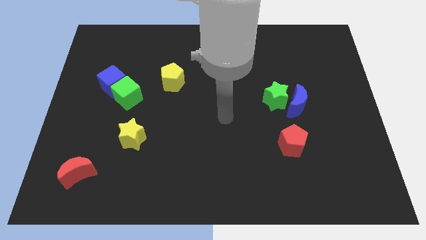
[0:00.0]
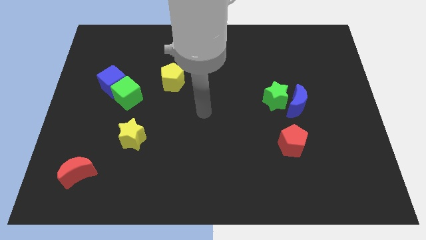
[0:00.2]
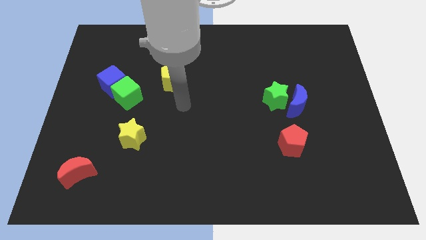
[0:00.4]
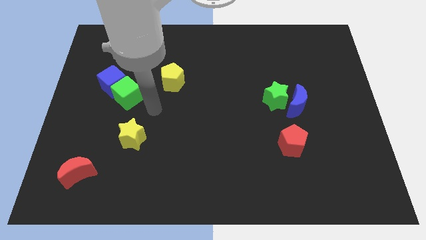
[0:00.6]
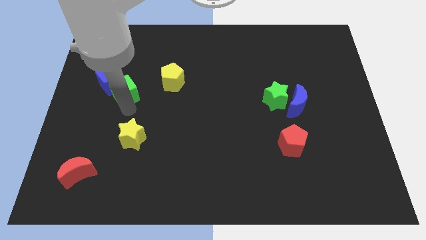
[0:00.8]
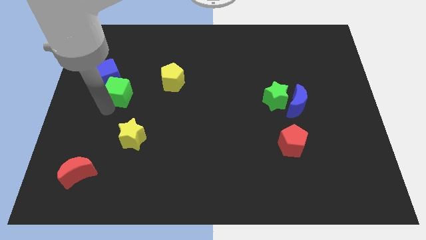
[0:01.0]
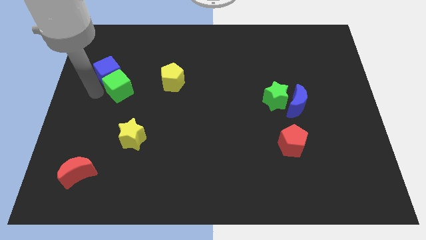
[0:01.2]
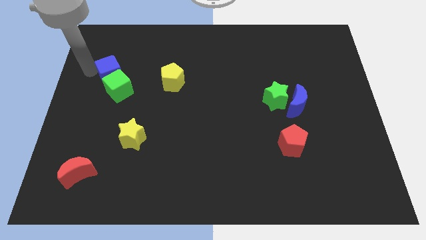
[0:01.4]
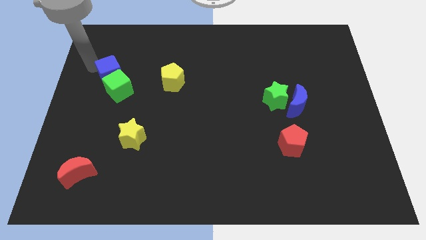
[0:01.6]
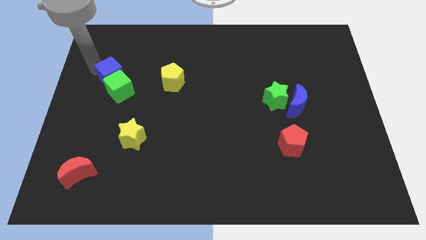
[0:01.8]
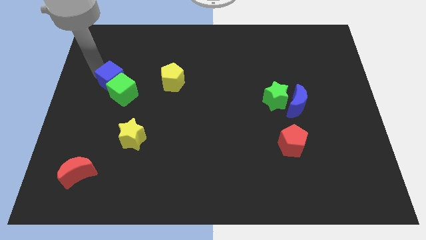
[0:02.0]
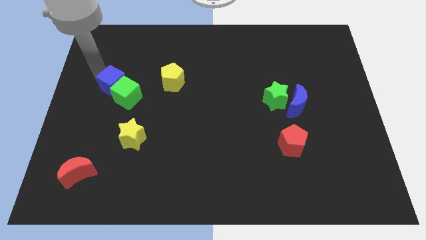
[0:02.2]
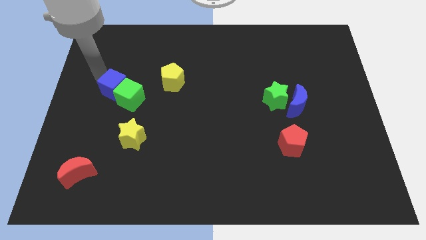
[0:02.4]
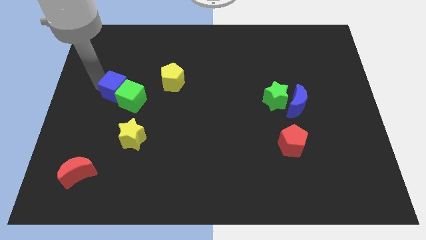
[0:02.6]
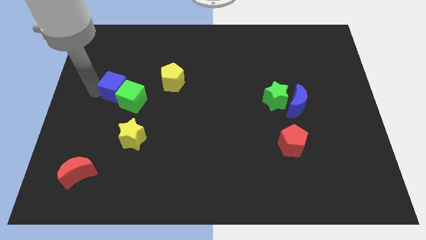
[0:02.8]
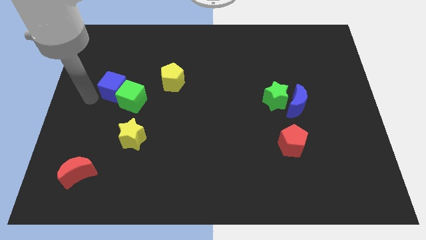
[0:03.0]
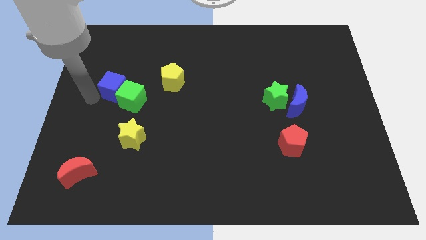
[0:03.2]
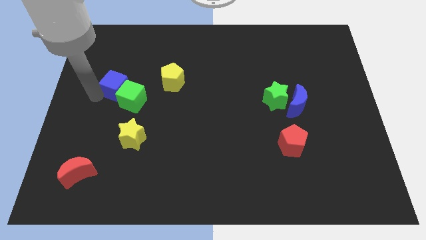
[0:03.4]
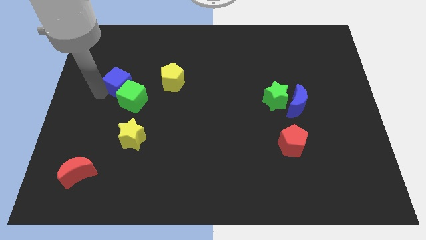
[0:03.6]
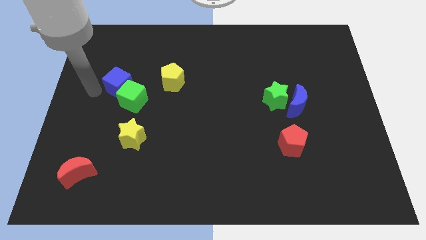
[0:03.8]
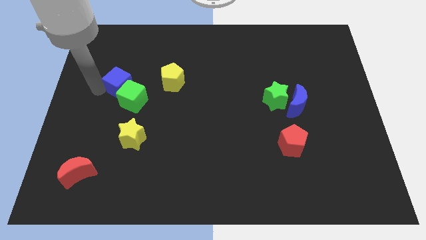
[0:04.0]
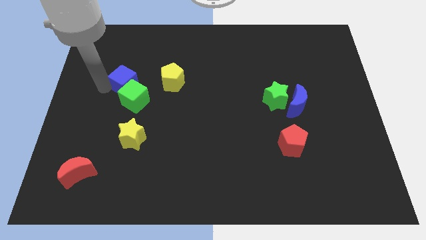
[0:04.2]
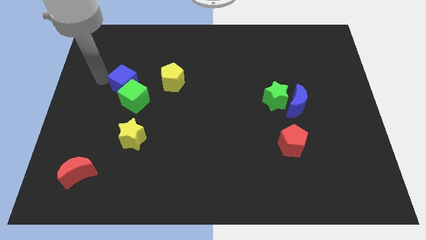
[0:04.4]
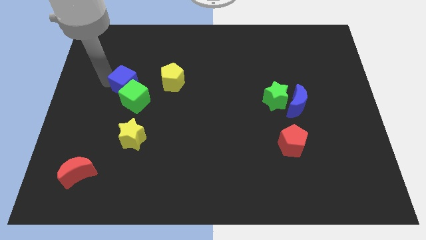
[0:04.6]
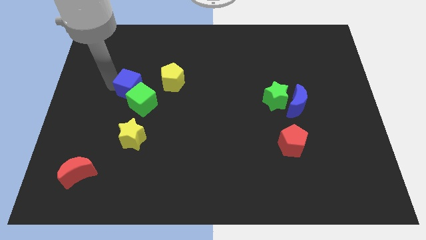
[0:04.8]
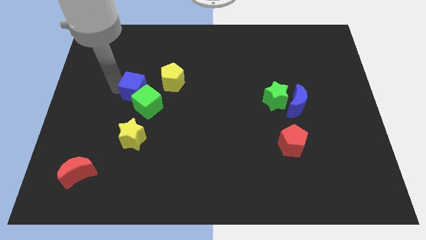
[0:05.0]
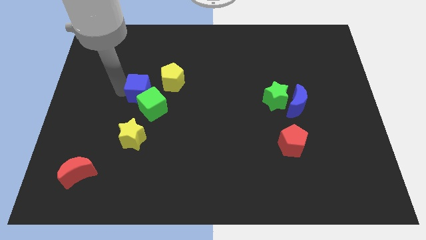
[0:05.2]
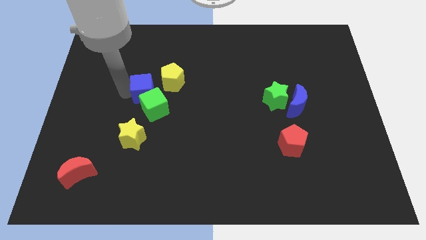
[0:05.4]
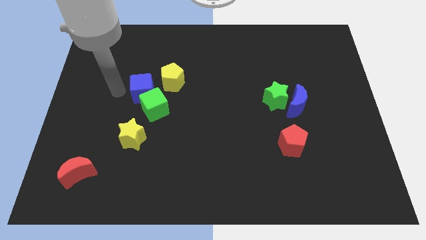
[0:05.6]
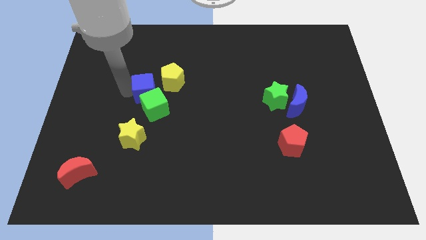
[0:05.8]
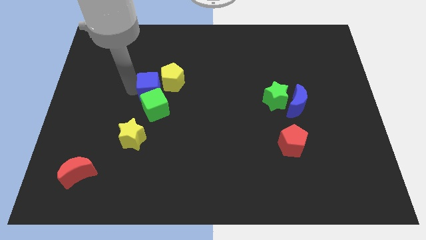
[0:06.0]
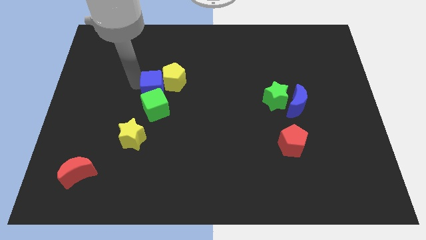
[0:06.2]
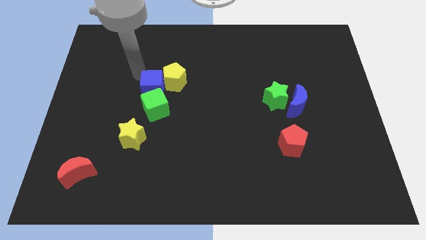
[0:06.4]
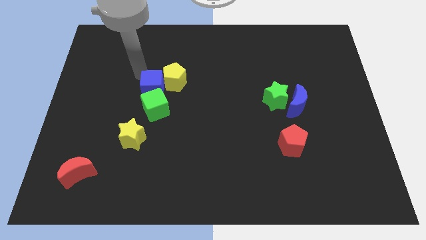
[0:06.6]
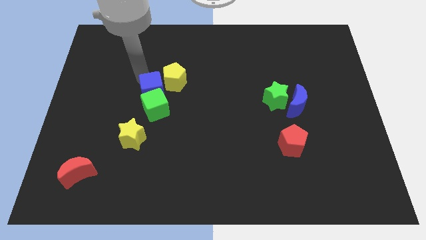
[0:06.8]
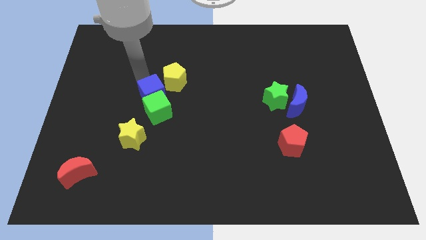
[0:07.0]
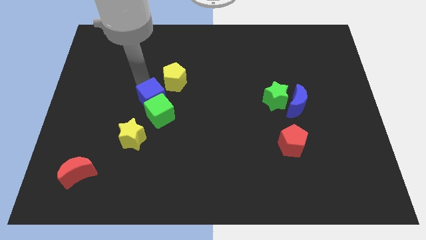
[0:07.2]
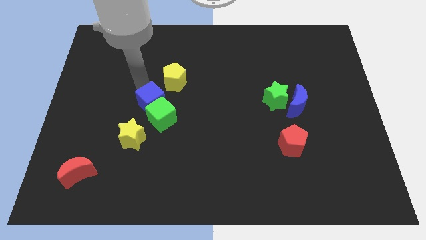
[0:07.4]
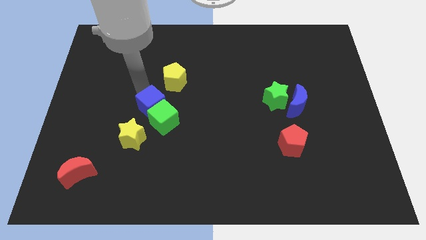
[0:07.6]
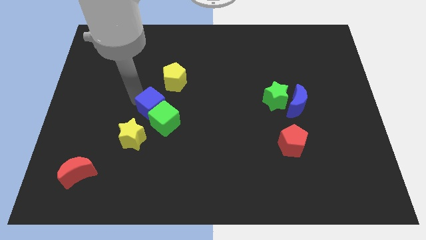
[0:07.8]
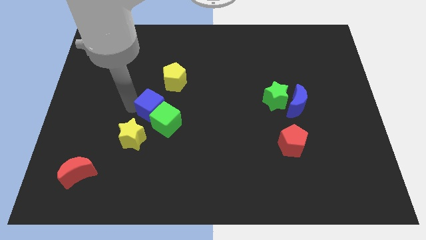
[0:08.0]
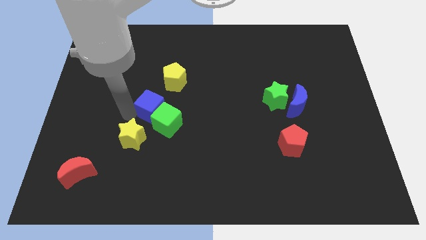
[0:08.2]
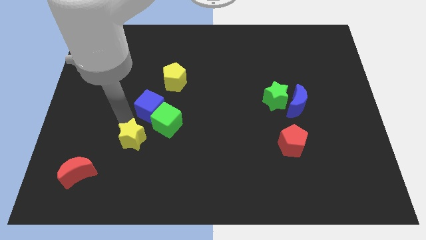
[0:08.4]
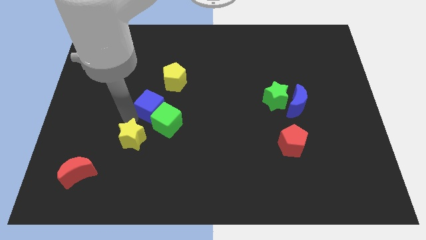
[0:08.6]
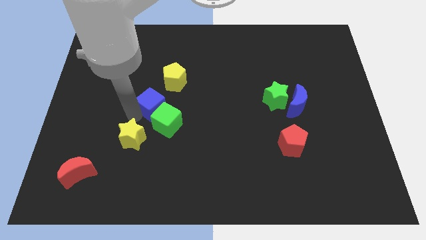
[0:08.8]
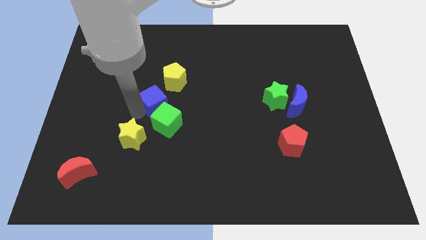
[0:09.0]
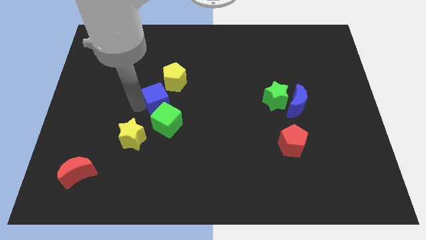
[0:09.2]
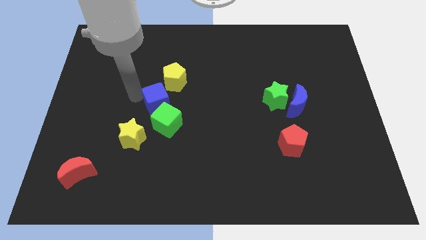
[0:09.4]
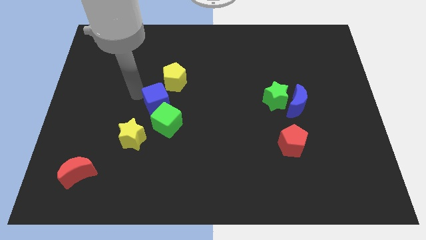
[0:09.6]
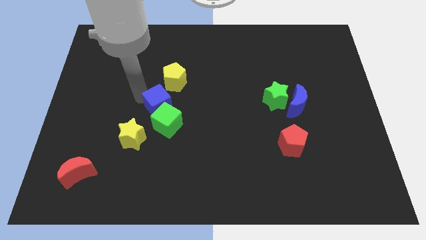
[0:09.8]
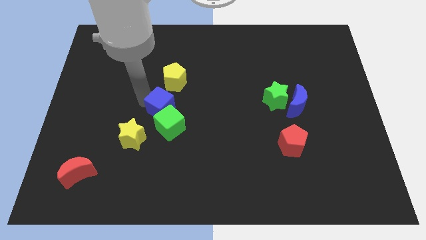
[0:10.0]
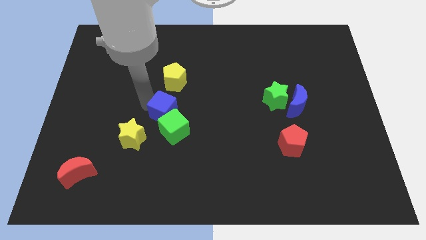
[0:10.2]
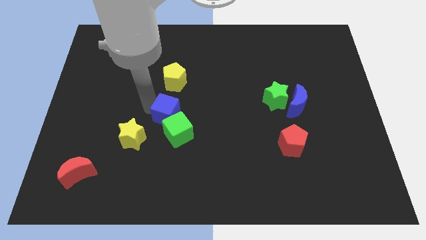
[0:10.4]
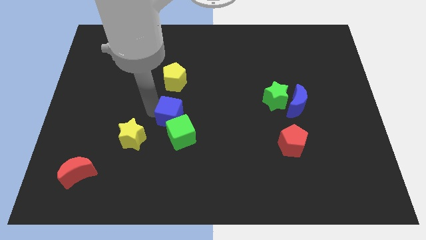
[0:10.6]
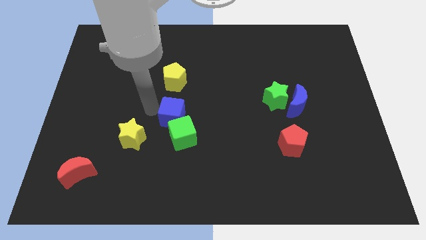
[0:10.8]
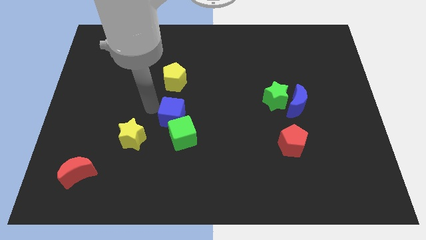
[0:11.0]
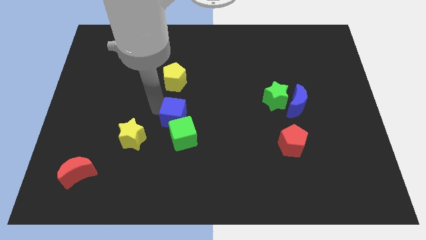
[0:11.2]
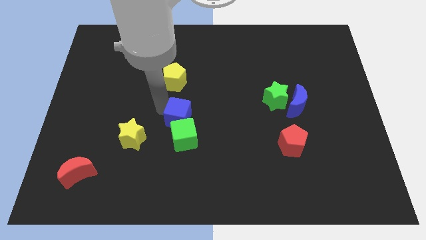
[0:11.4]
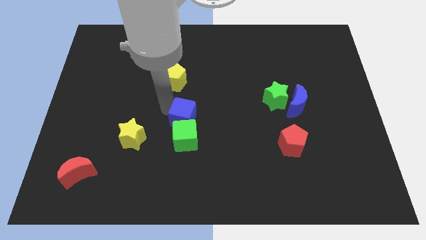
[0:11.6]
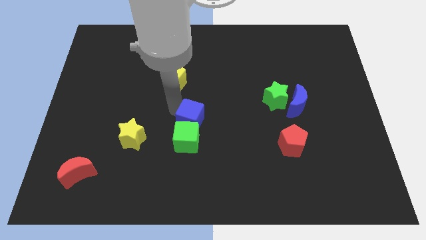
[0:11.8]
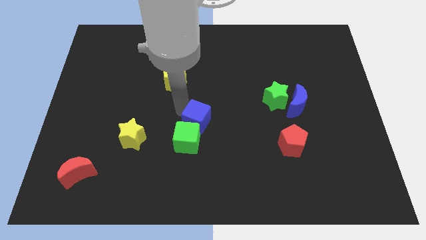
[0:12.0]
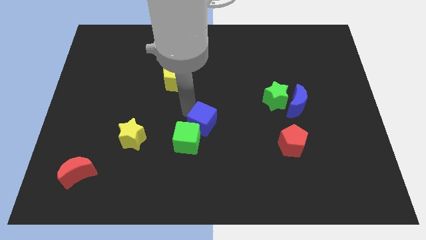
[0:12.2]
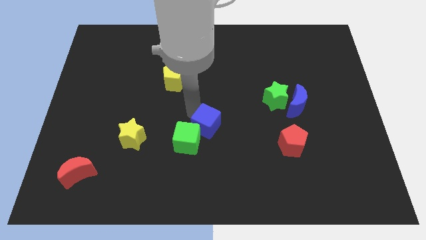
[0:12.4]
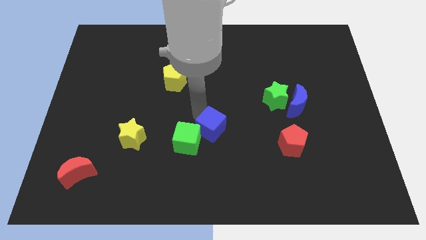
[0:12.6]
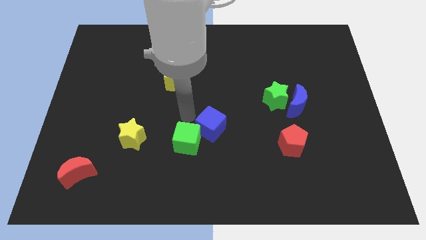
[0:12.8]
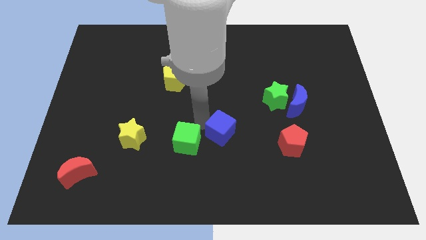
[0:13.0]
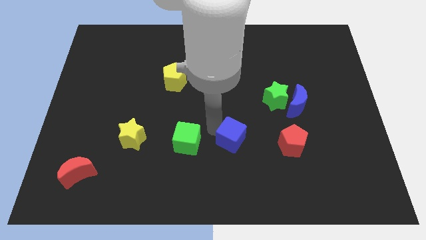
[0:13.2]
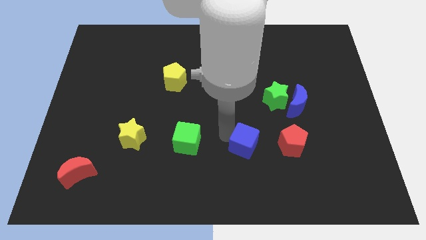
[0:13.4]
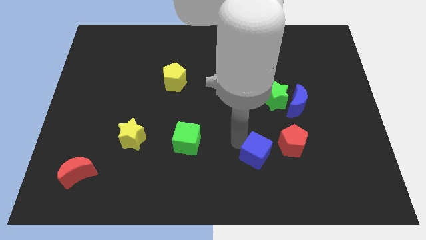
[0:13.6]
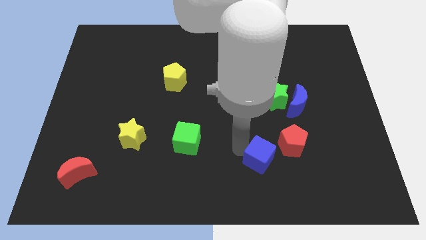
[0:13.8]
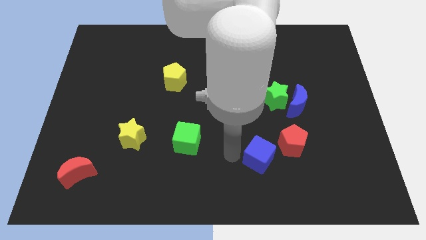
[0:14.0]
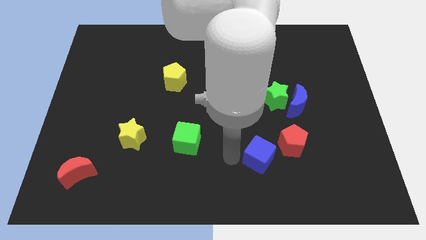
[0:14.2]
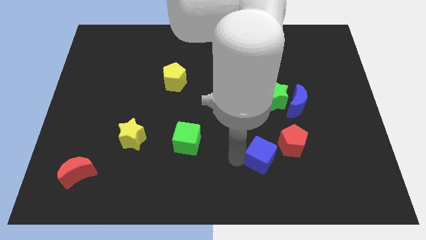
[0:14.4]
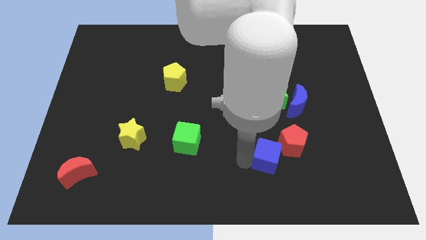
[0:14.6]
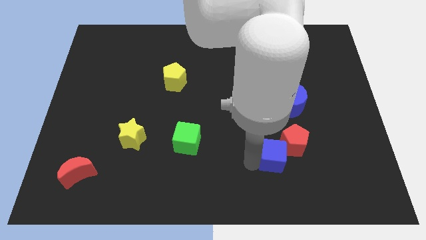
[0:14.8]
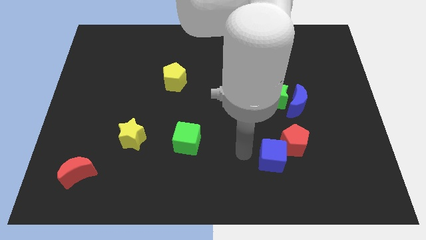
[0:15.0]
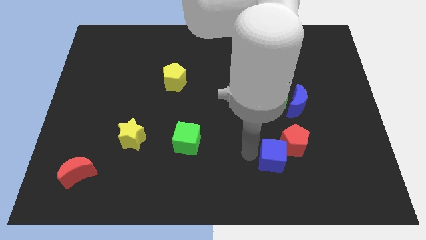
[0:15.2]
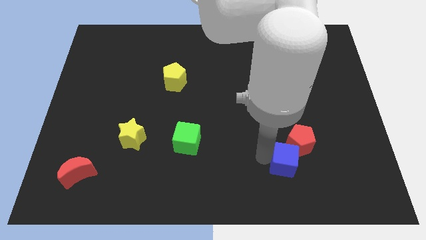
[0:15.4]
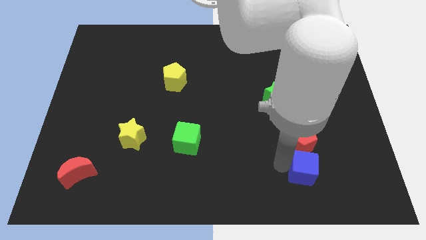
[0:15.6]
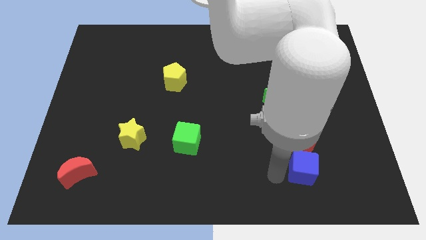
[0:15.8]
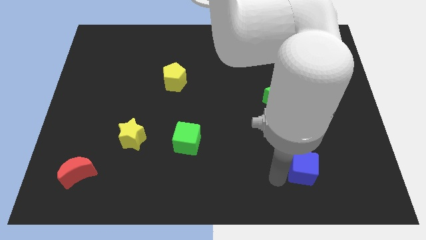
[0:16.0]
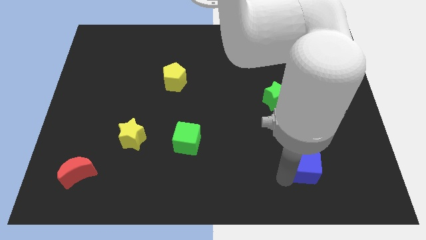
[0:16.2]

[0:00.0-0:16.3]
slide the blue cube to the bottom right of the red pentagon
